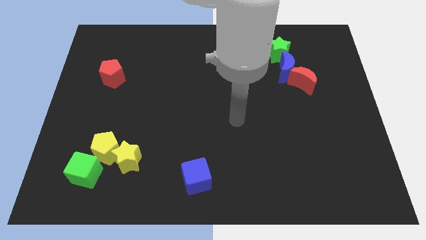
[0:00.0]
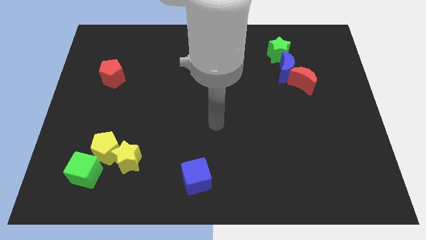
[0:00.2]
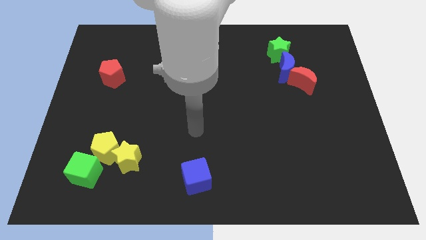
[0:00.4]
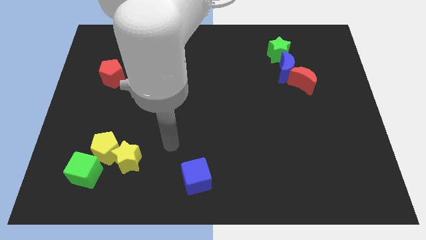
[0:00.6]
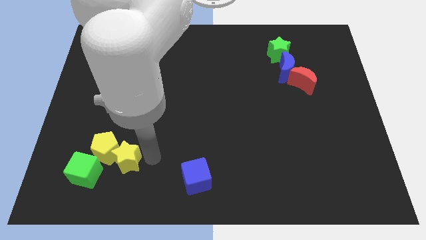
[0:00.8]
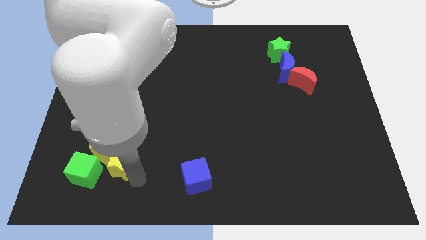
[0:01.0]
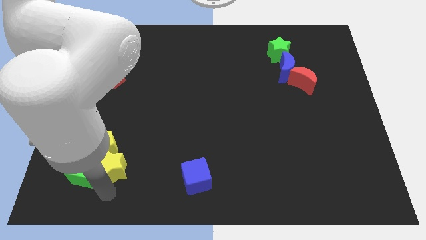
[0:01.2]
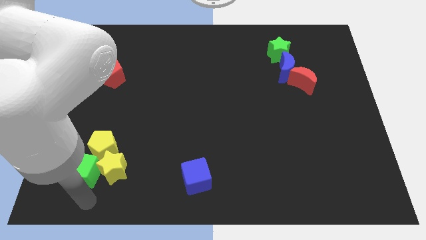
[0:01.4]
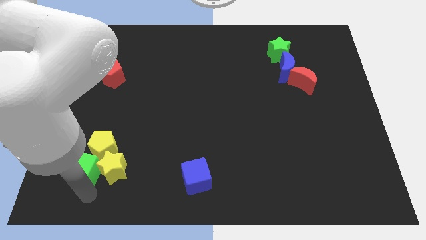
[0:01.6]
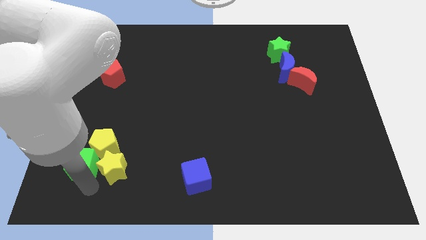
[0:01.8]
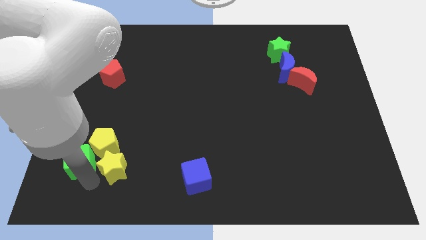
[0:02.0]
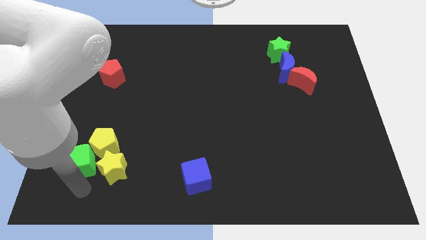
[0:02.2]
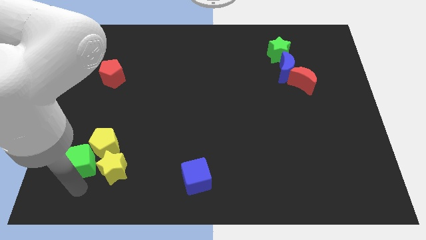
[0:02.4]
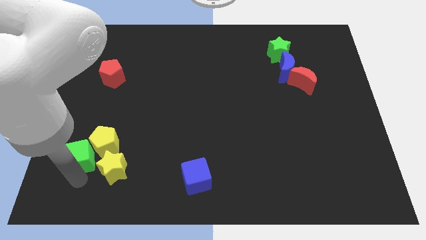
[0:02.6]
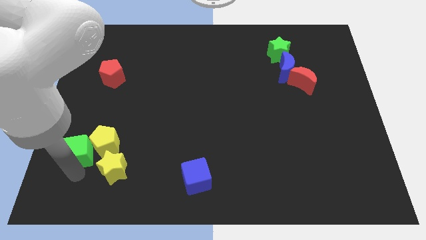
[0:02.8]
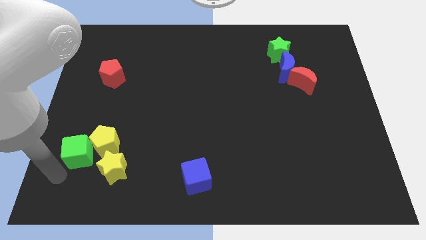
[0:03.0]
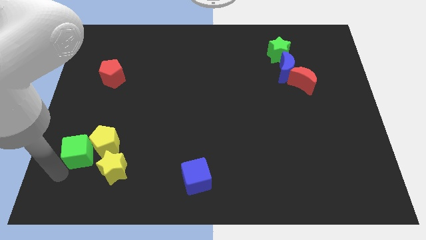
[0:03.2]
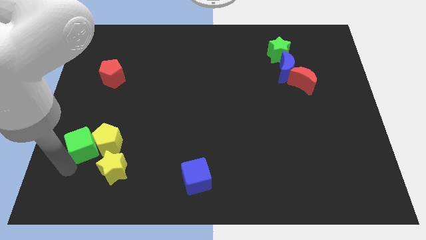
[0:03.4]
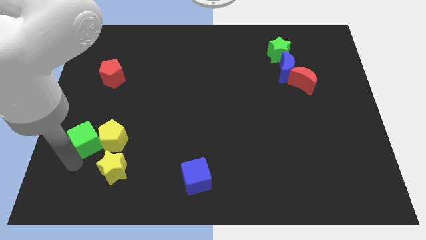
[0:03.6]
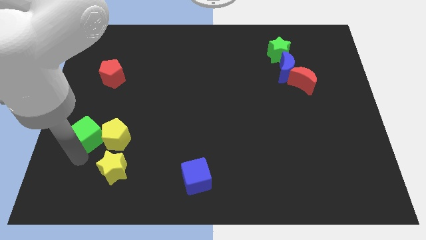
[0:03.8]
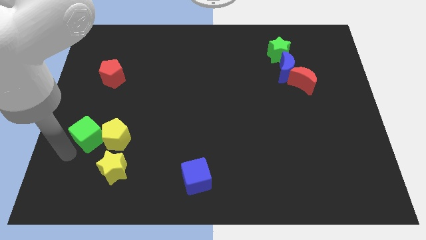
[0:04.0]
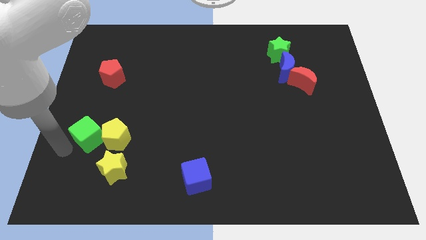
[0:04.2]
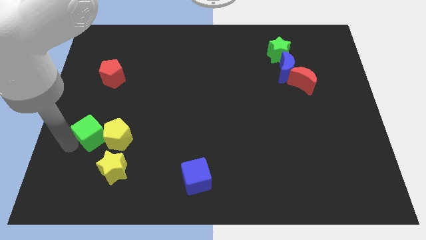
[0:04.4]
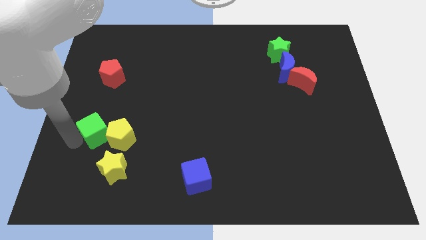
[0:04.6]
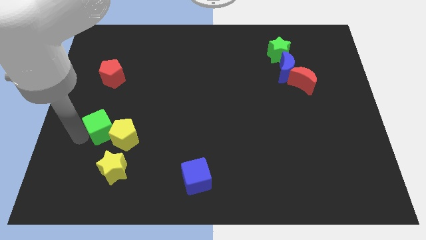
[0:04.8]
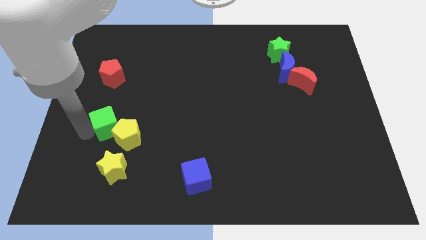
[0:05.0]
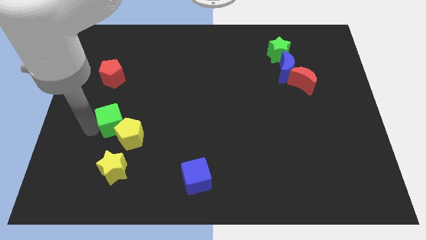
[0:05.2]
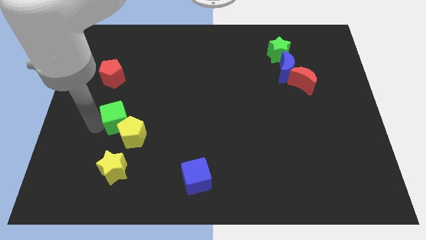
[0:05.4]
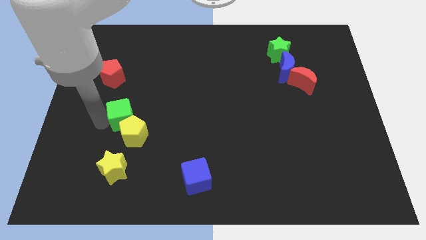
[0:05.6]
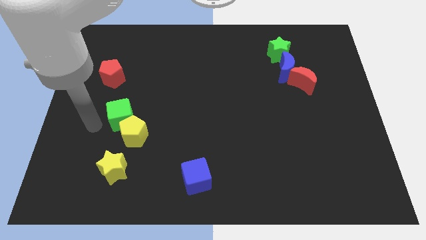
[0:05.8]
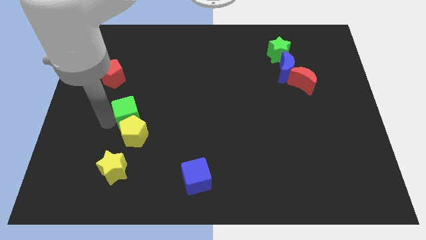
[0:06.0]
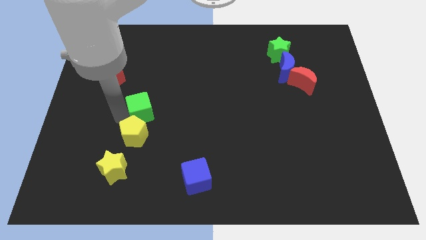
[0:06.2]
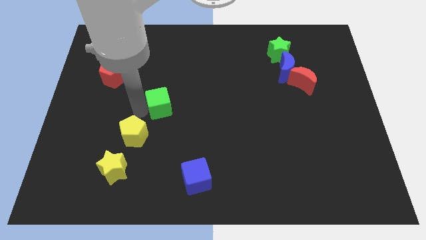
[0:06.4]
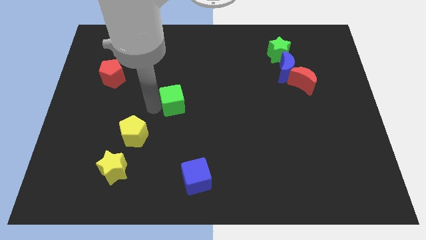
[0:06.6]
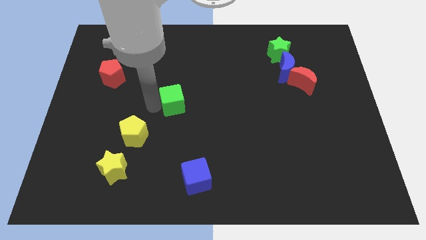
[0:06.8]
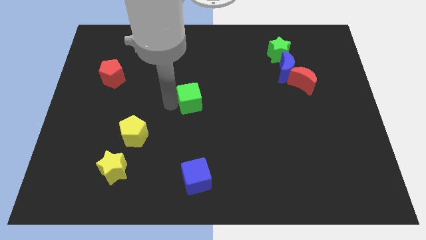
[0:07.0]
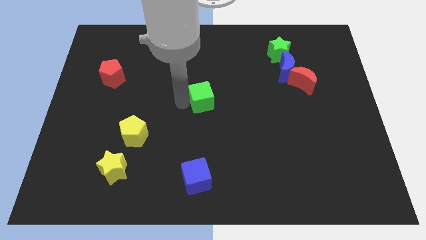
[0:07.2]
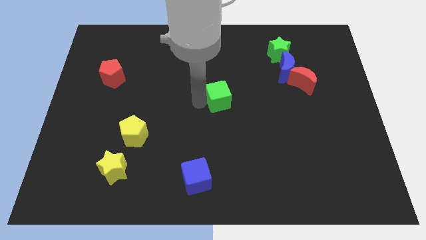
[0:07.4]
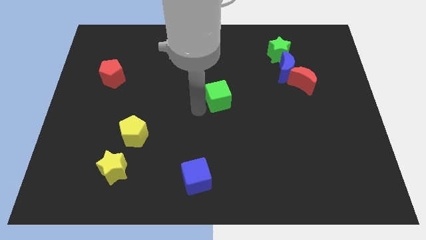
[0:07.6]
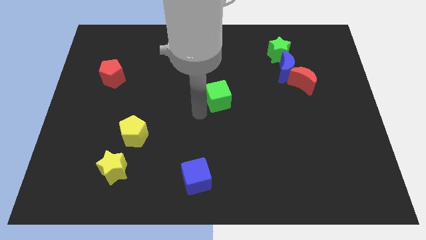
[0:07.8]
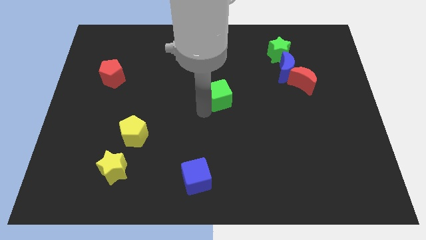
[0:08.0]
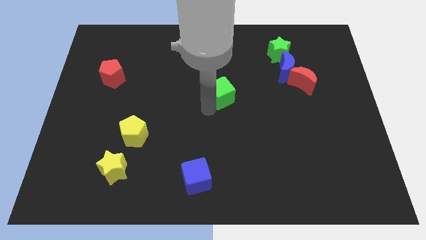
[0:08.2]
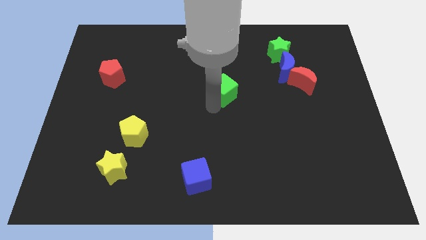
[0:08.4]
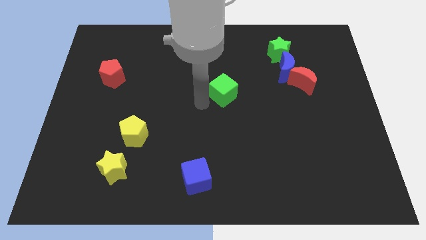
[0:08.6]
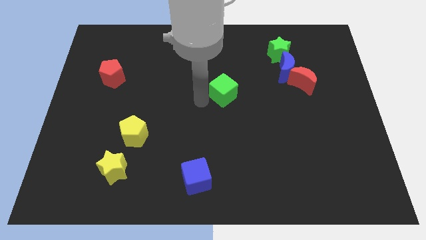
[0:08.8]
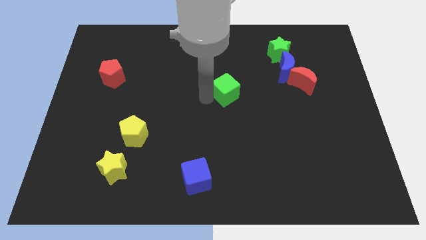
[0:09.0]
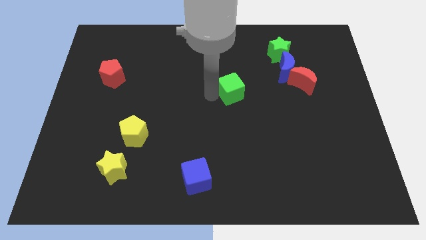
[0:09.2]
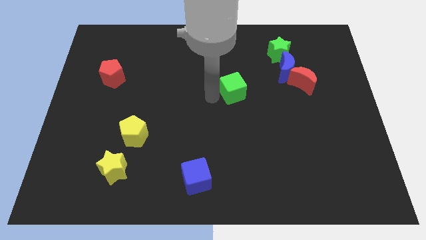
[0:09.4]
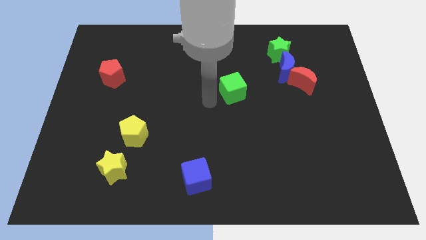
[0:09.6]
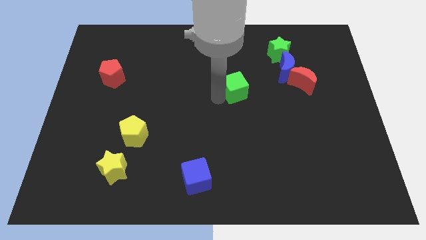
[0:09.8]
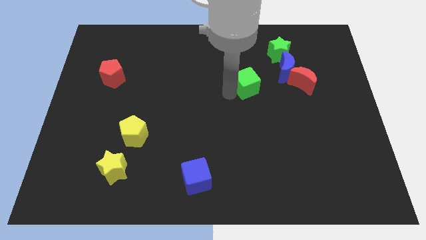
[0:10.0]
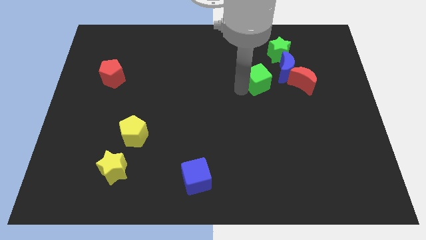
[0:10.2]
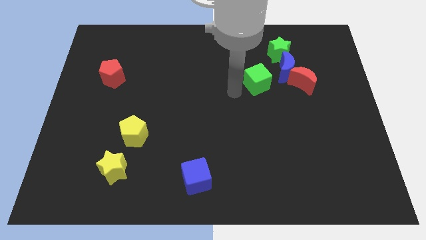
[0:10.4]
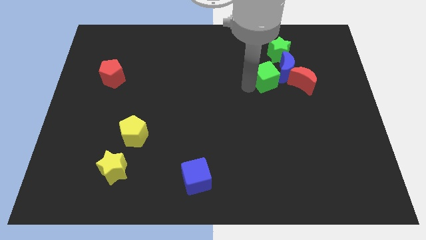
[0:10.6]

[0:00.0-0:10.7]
put the green cube to the blue moon

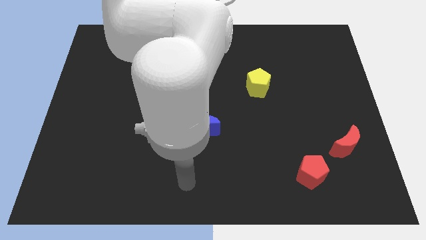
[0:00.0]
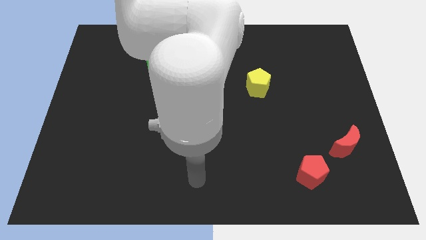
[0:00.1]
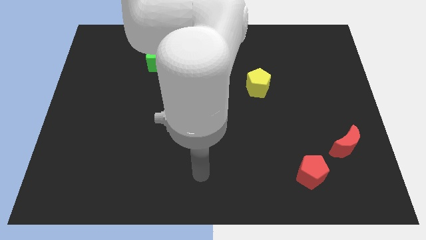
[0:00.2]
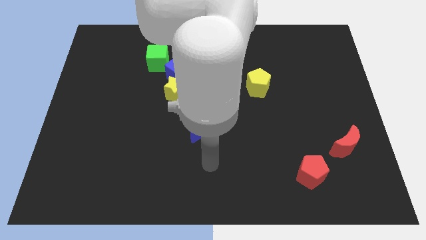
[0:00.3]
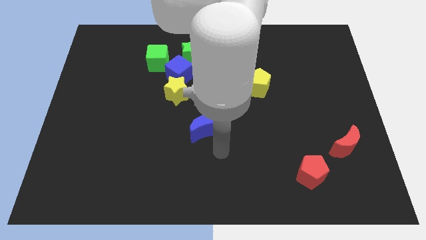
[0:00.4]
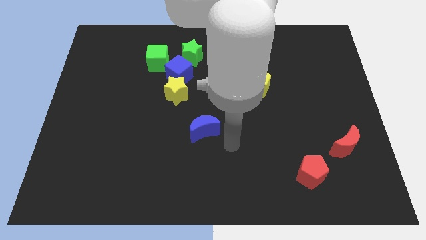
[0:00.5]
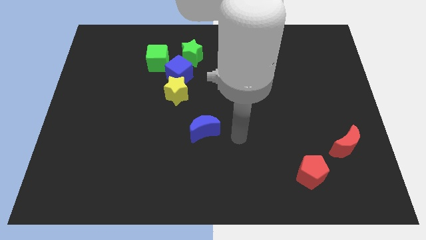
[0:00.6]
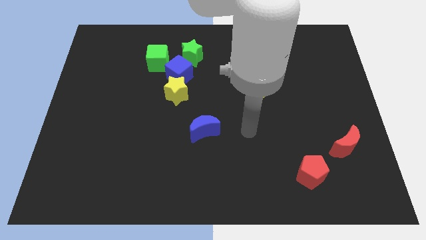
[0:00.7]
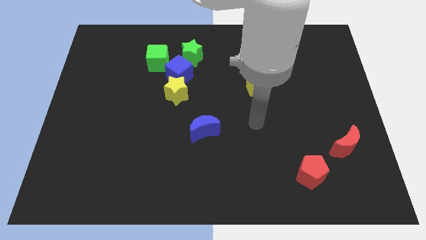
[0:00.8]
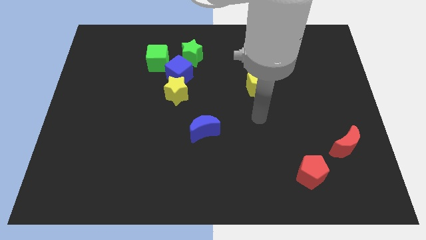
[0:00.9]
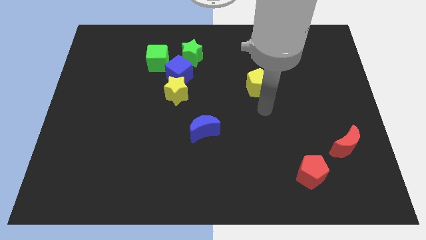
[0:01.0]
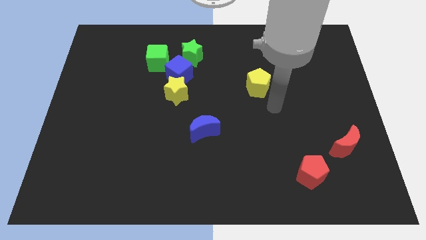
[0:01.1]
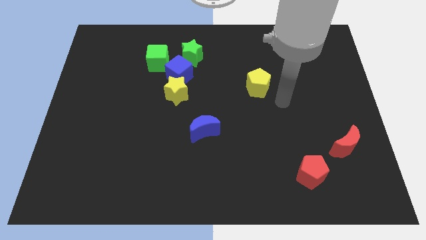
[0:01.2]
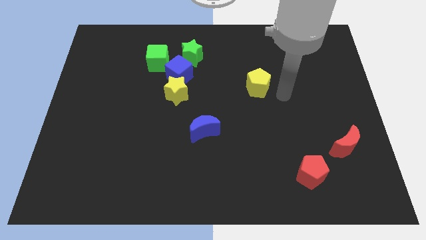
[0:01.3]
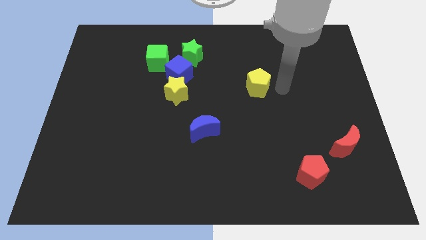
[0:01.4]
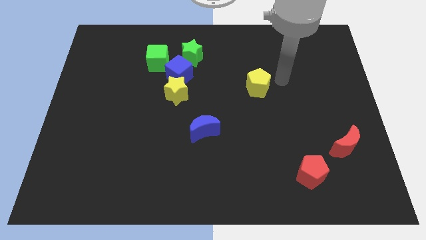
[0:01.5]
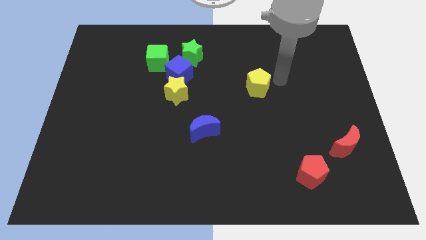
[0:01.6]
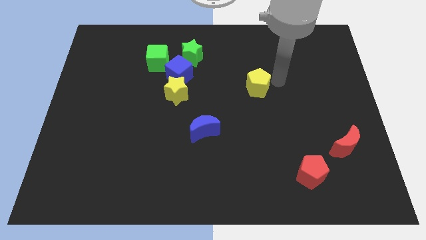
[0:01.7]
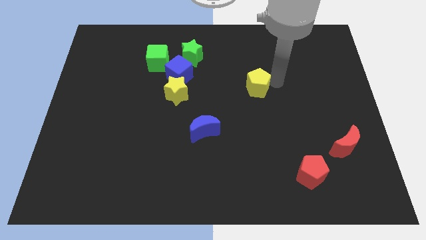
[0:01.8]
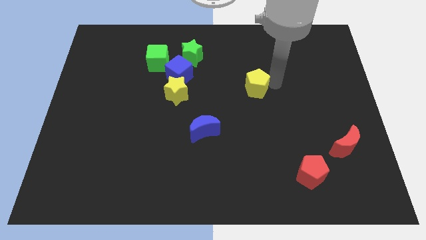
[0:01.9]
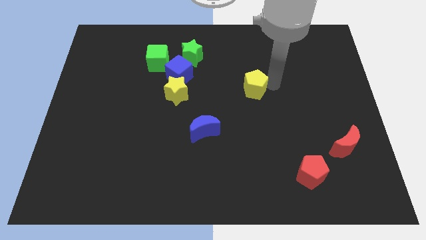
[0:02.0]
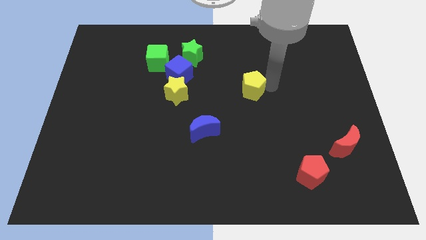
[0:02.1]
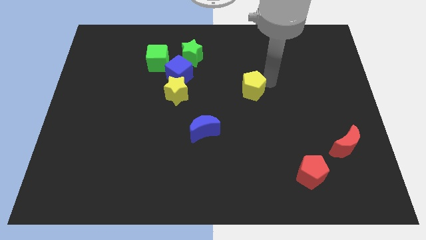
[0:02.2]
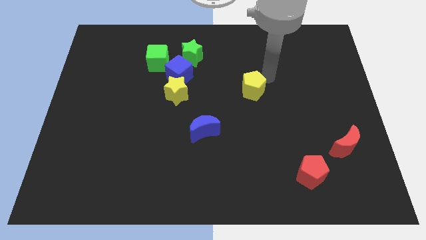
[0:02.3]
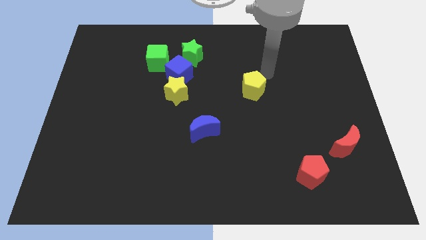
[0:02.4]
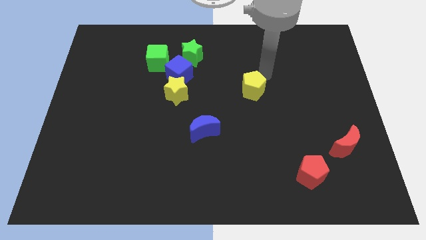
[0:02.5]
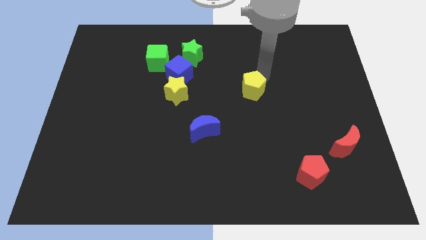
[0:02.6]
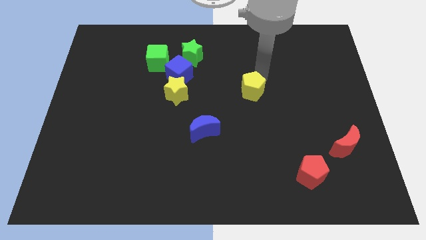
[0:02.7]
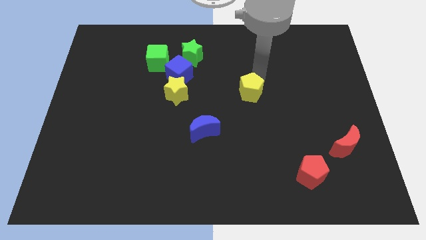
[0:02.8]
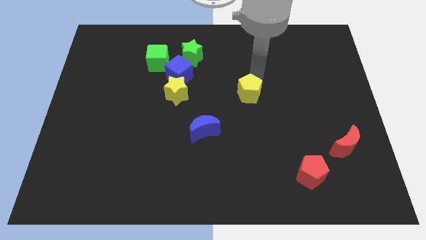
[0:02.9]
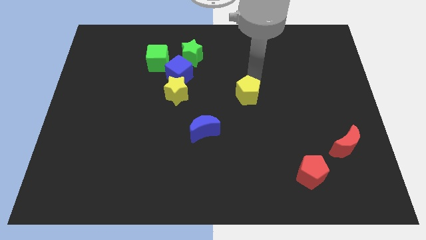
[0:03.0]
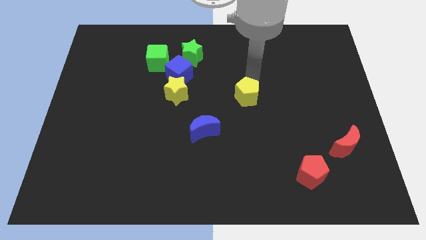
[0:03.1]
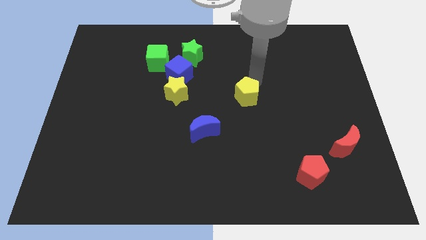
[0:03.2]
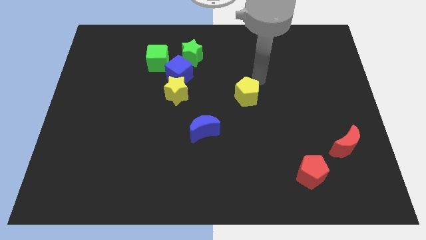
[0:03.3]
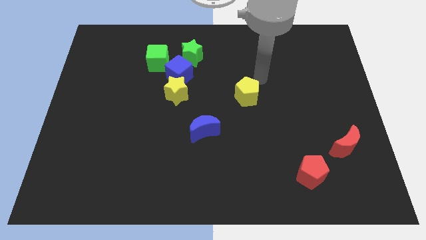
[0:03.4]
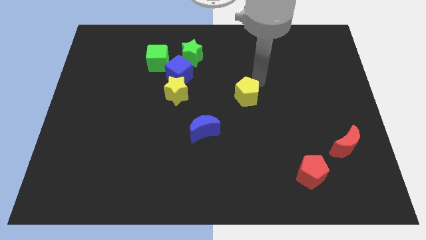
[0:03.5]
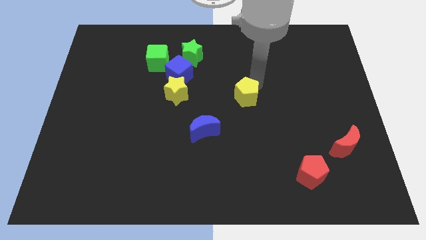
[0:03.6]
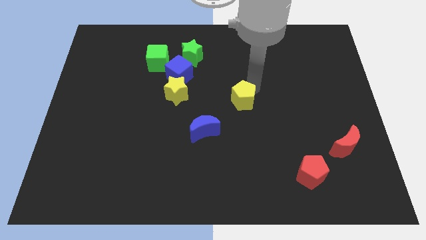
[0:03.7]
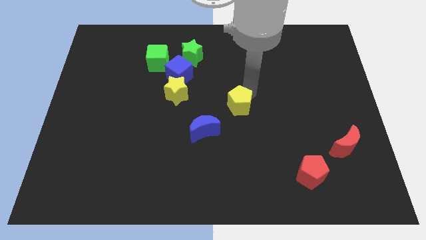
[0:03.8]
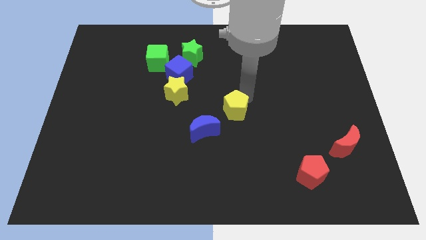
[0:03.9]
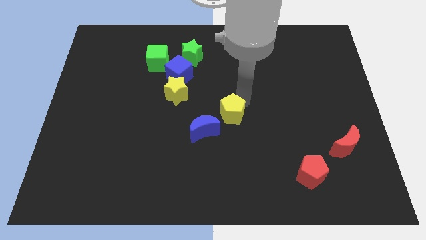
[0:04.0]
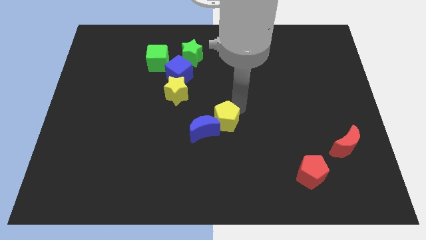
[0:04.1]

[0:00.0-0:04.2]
put the yellow pentagon next to the blue moon
